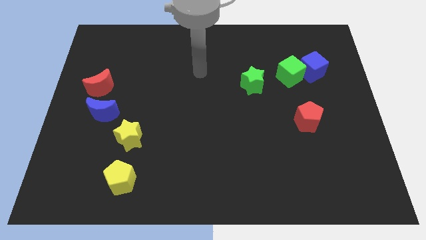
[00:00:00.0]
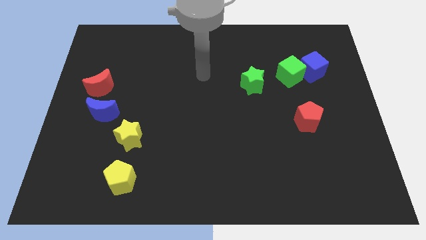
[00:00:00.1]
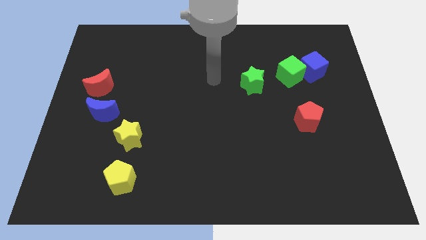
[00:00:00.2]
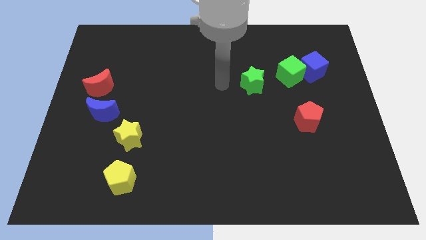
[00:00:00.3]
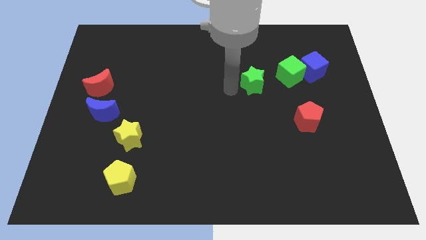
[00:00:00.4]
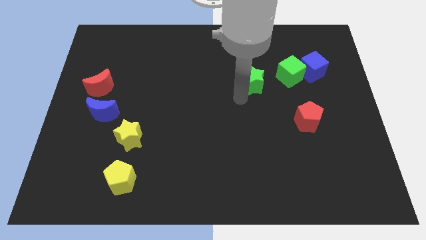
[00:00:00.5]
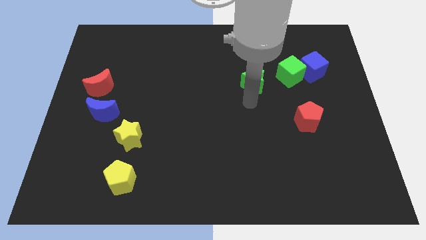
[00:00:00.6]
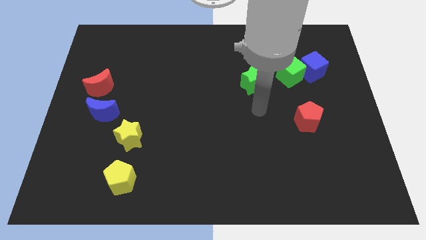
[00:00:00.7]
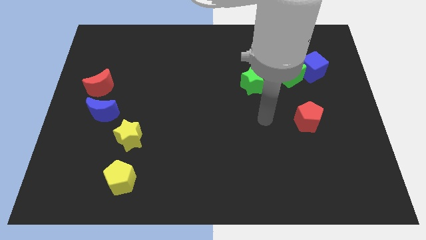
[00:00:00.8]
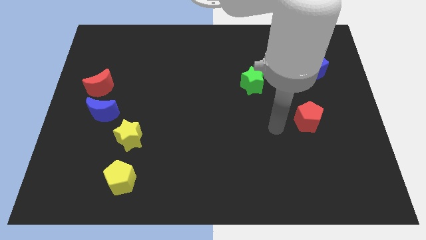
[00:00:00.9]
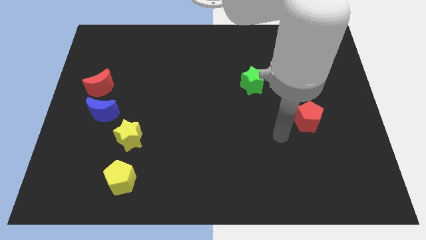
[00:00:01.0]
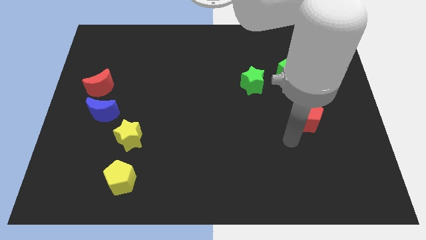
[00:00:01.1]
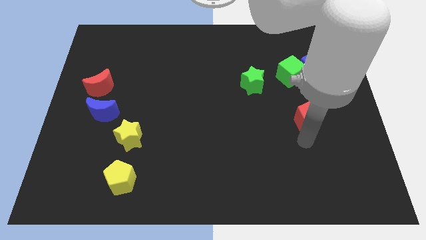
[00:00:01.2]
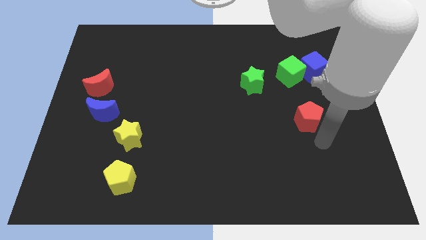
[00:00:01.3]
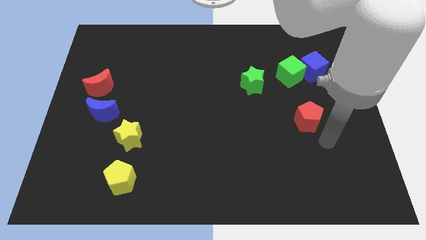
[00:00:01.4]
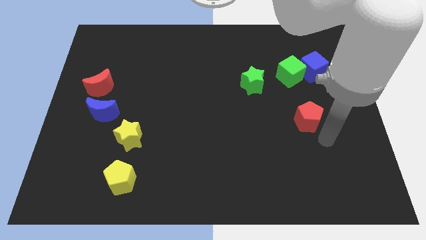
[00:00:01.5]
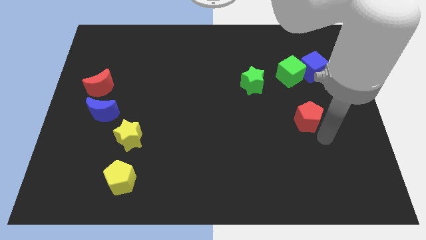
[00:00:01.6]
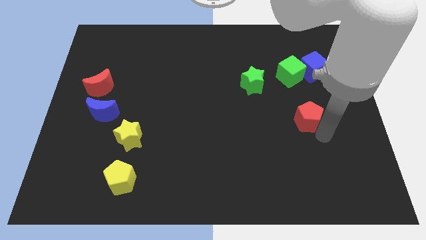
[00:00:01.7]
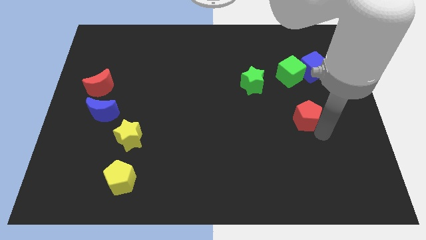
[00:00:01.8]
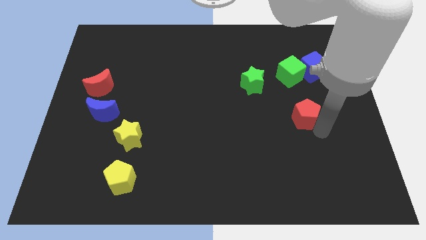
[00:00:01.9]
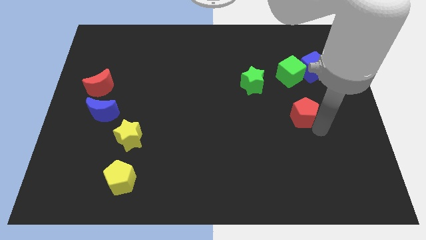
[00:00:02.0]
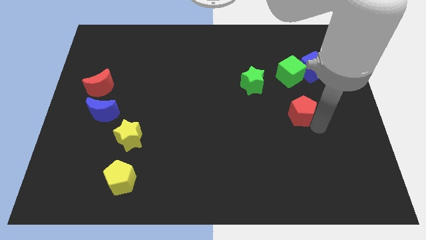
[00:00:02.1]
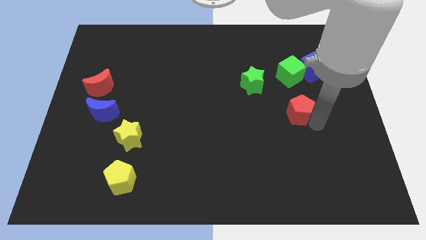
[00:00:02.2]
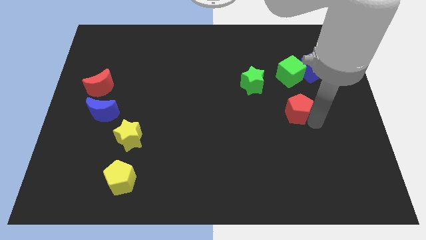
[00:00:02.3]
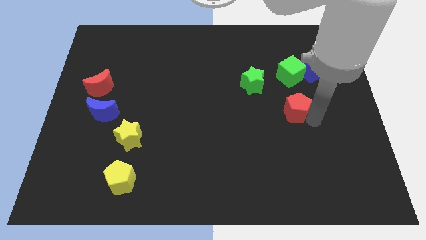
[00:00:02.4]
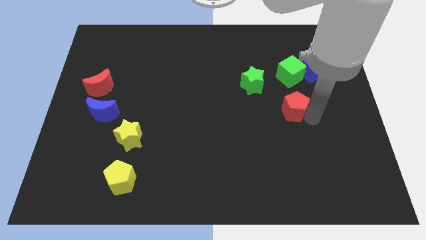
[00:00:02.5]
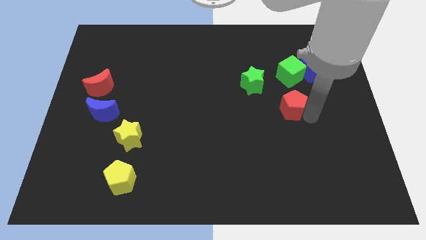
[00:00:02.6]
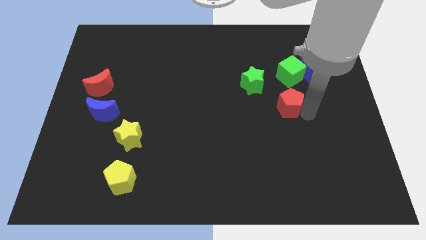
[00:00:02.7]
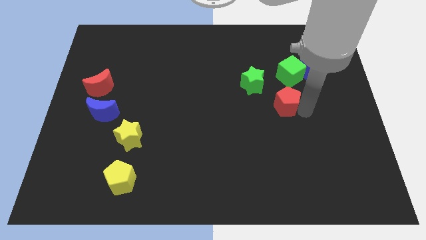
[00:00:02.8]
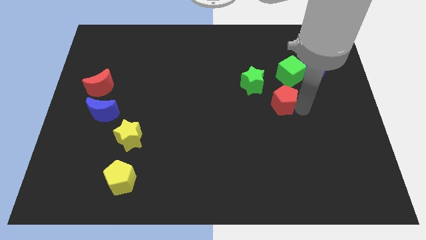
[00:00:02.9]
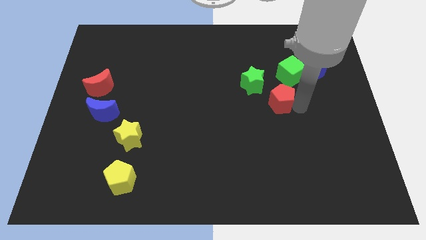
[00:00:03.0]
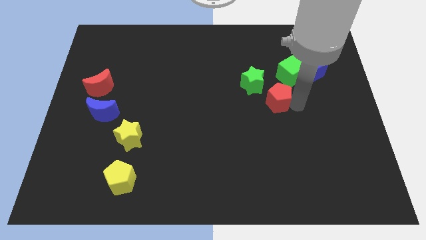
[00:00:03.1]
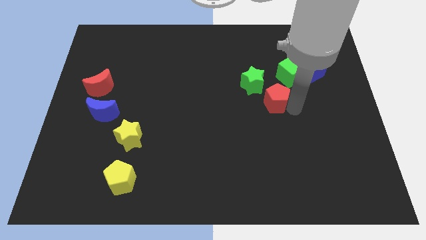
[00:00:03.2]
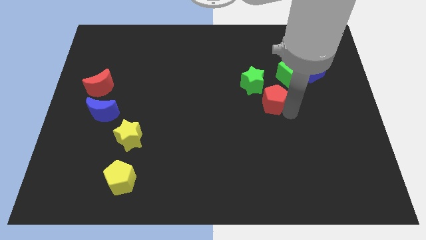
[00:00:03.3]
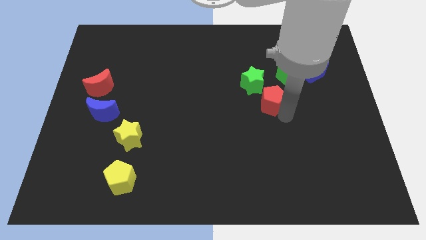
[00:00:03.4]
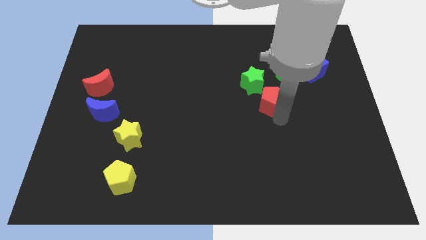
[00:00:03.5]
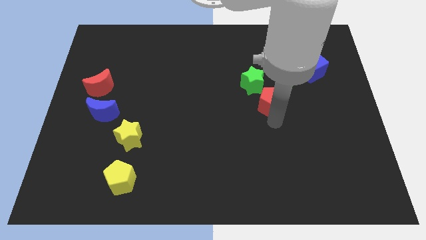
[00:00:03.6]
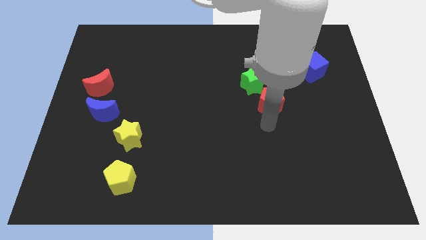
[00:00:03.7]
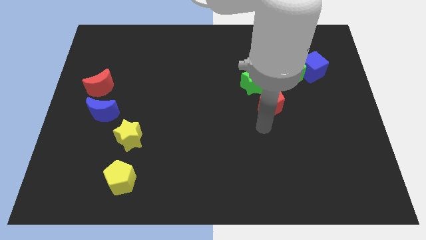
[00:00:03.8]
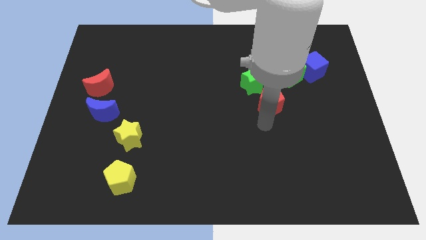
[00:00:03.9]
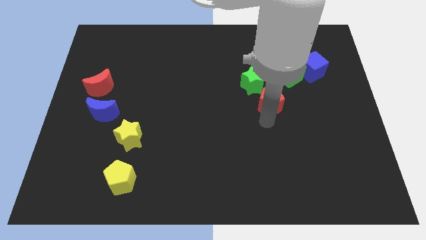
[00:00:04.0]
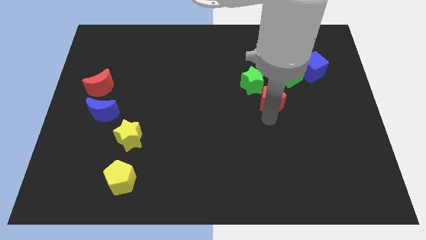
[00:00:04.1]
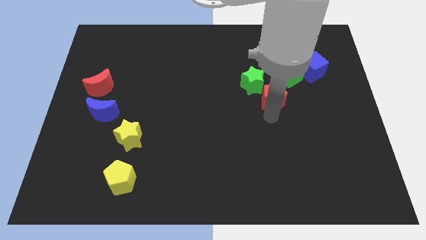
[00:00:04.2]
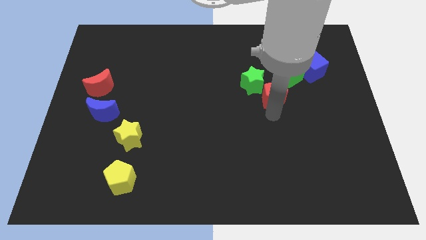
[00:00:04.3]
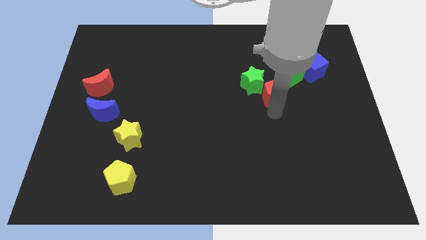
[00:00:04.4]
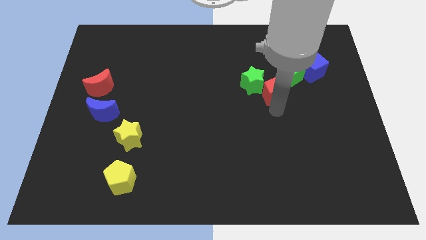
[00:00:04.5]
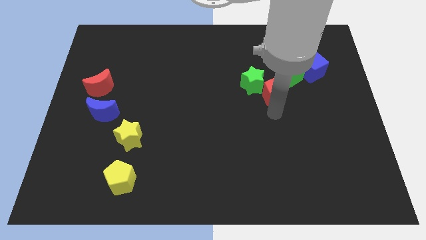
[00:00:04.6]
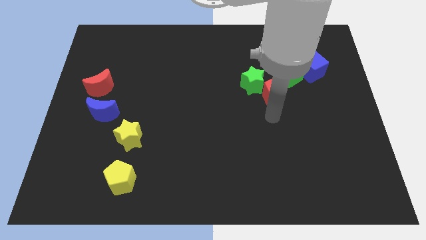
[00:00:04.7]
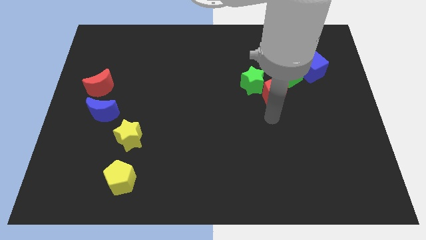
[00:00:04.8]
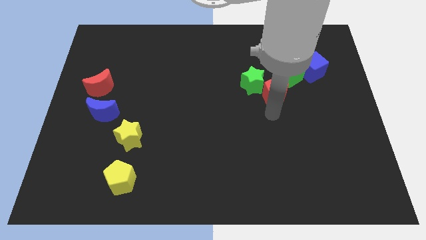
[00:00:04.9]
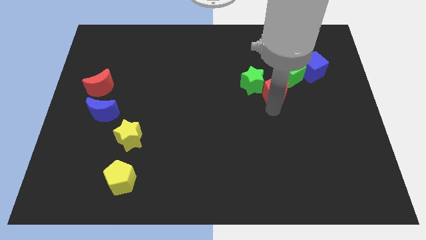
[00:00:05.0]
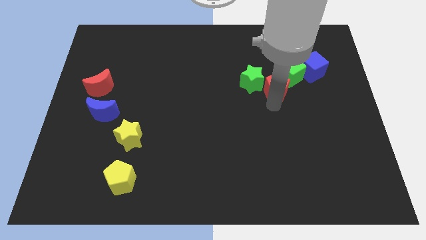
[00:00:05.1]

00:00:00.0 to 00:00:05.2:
slide the red pentagon upwards a bit

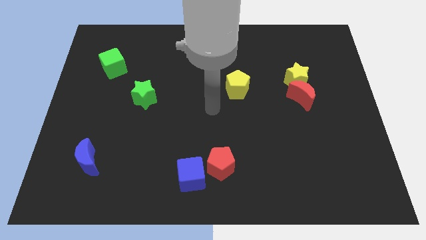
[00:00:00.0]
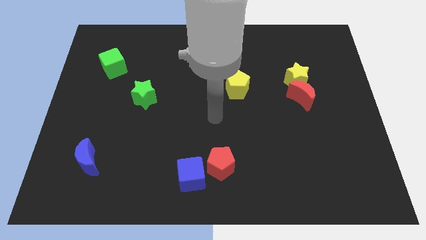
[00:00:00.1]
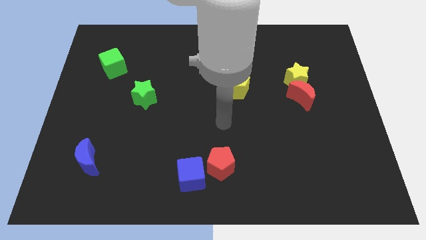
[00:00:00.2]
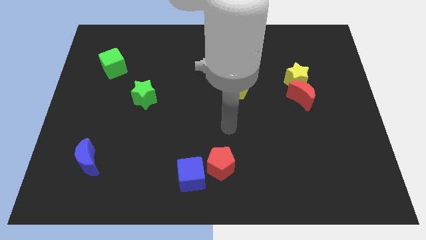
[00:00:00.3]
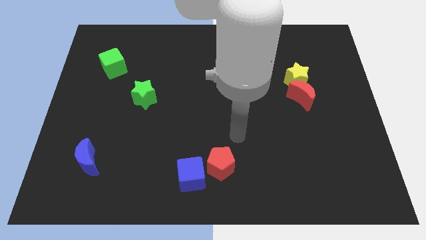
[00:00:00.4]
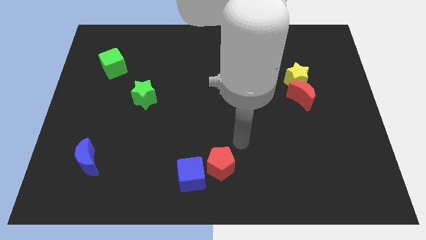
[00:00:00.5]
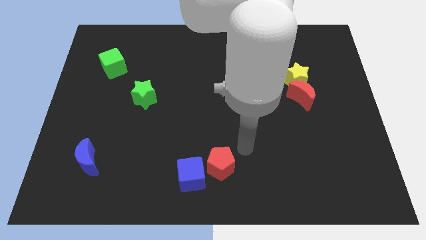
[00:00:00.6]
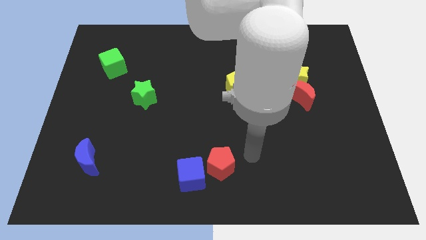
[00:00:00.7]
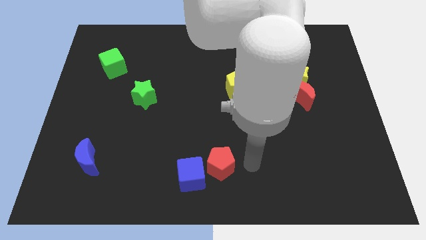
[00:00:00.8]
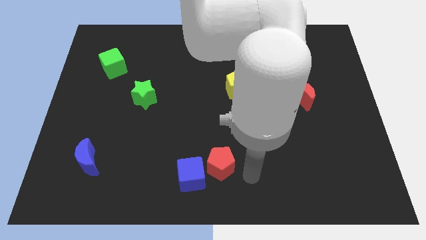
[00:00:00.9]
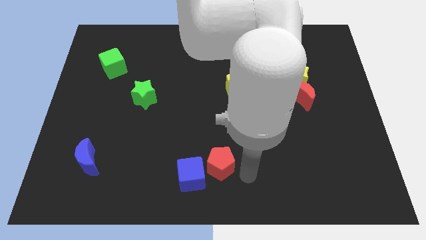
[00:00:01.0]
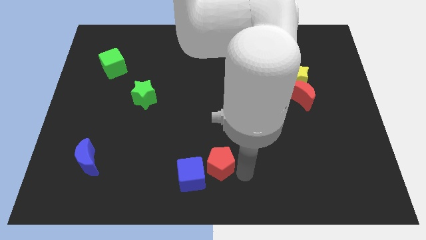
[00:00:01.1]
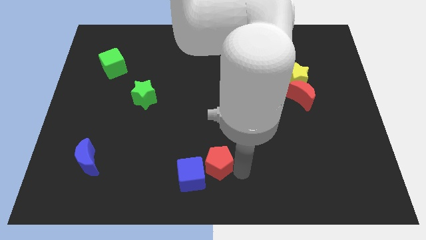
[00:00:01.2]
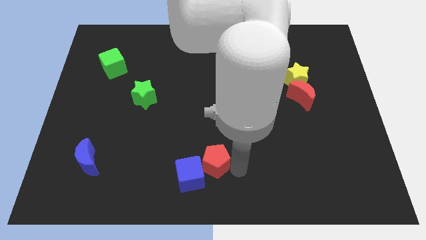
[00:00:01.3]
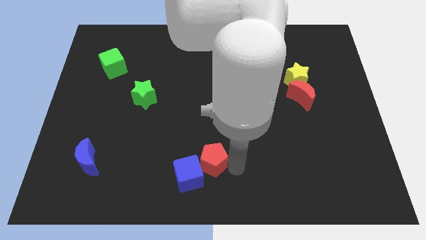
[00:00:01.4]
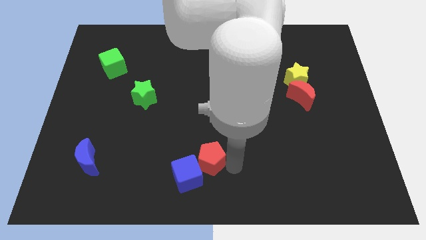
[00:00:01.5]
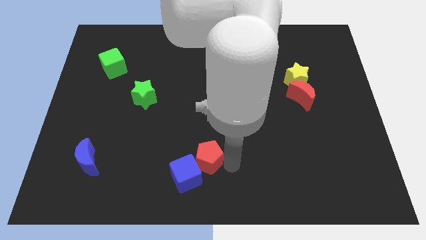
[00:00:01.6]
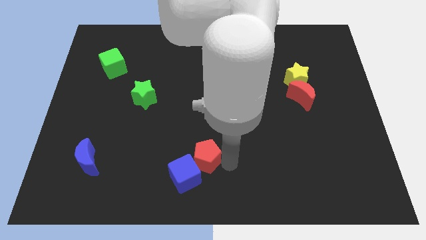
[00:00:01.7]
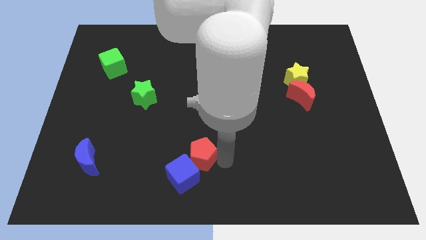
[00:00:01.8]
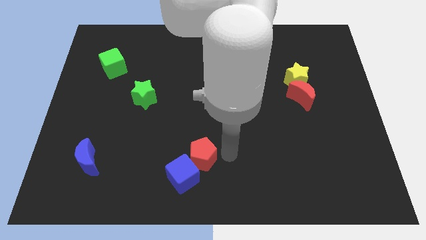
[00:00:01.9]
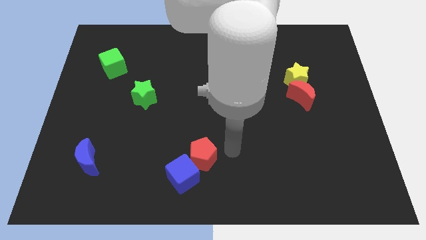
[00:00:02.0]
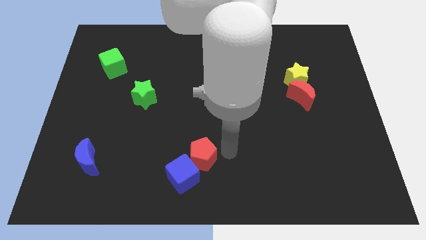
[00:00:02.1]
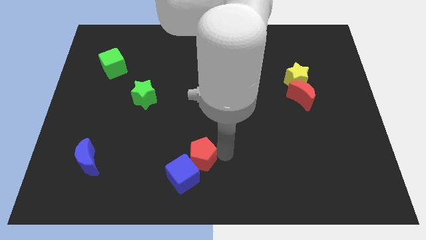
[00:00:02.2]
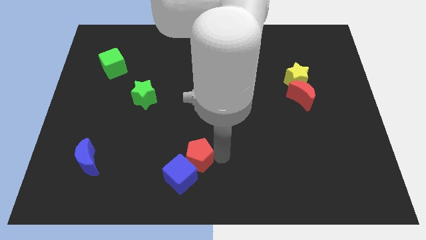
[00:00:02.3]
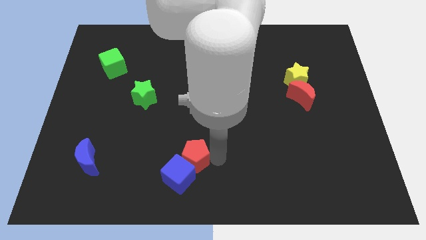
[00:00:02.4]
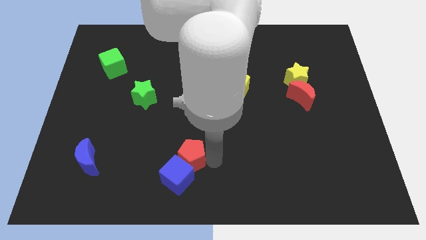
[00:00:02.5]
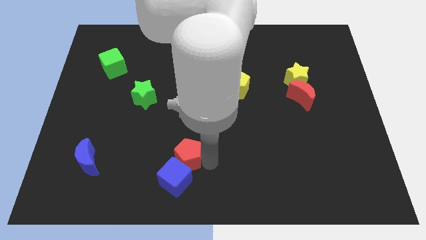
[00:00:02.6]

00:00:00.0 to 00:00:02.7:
push the red pentagon left a little
